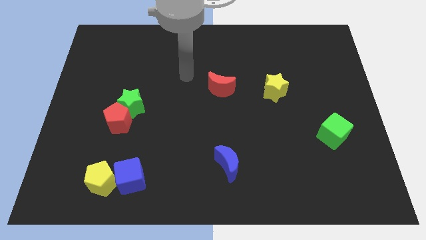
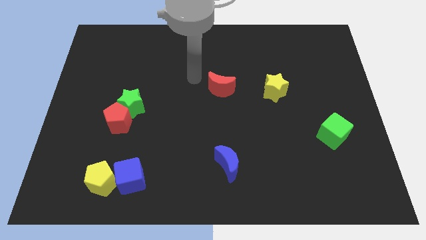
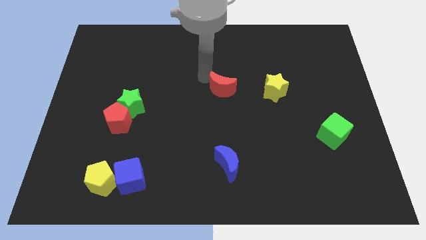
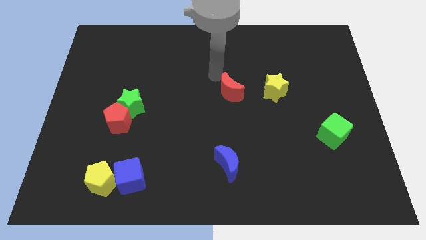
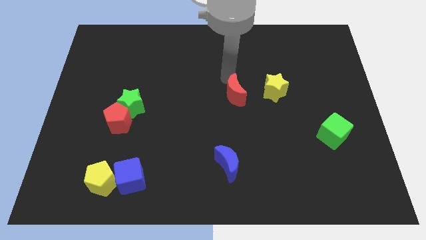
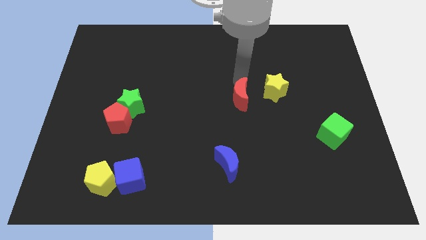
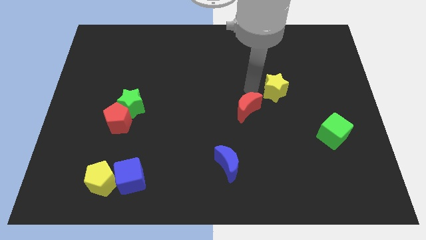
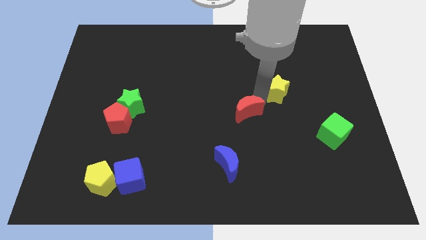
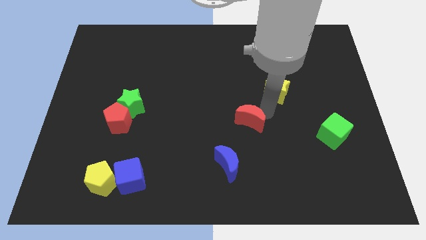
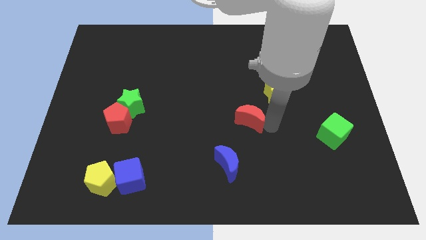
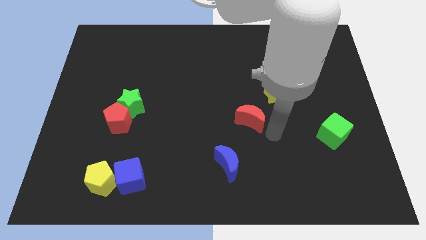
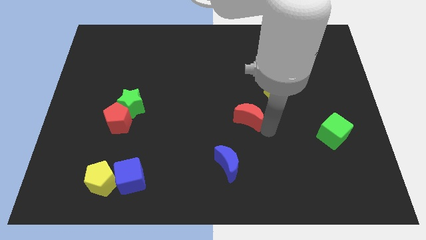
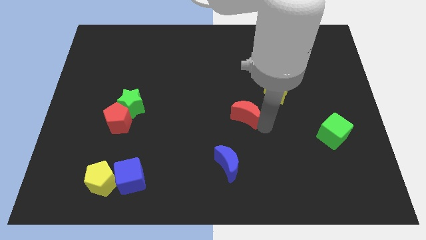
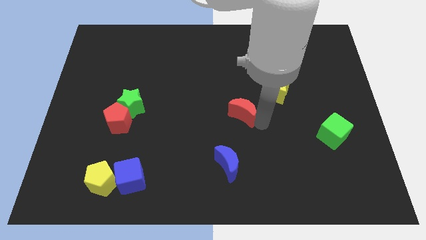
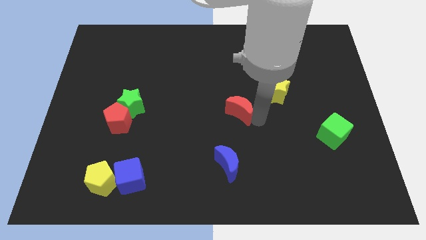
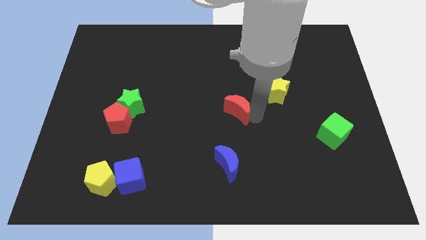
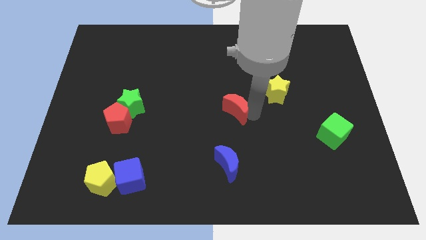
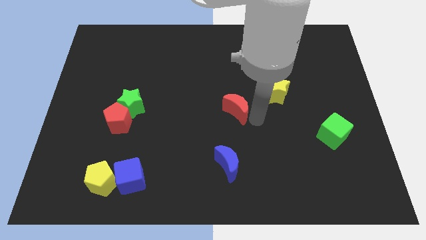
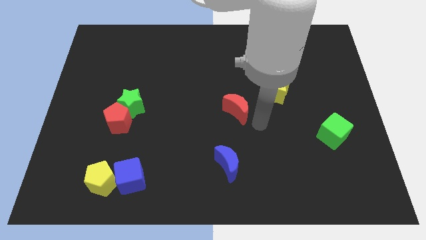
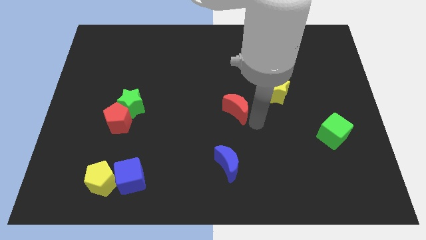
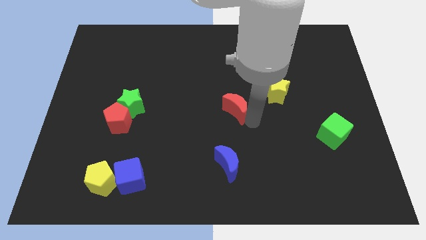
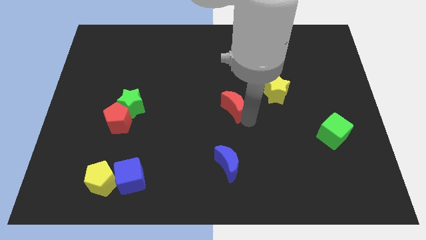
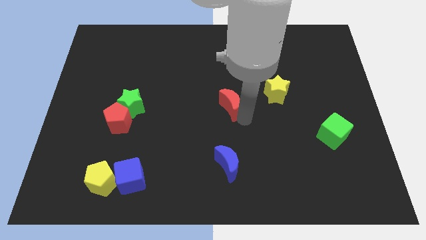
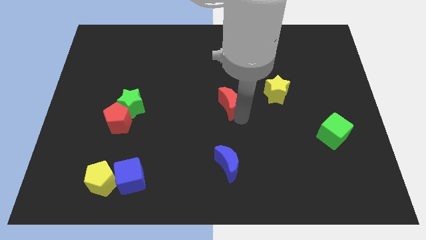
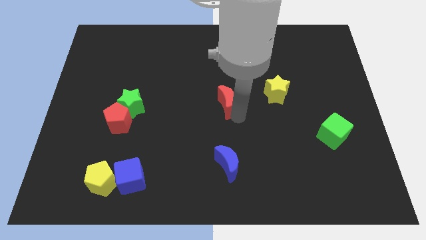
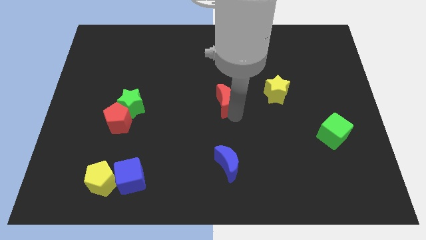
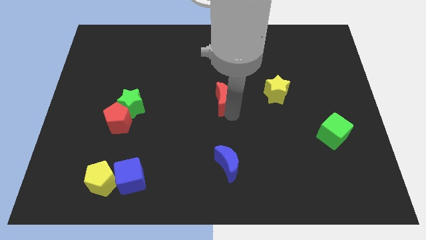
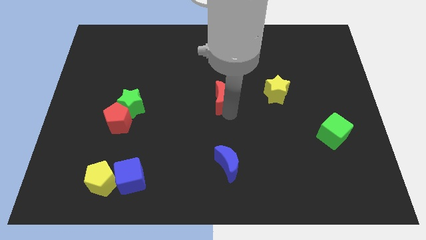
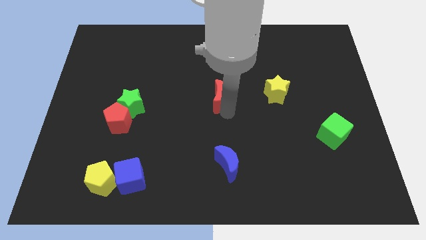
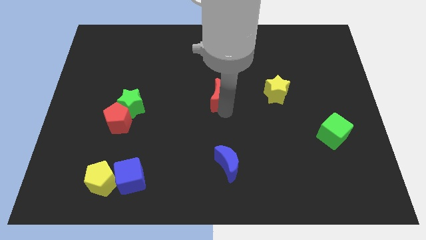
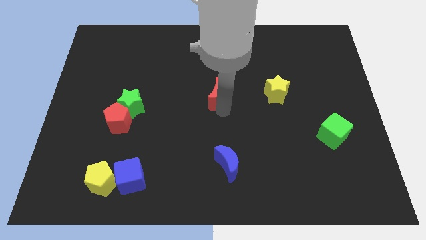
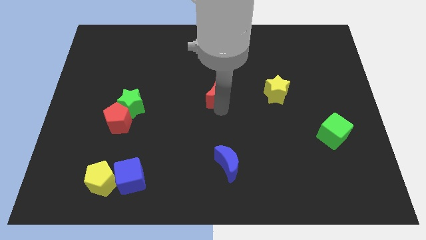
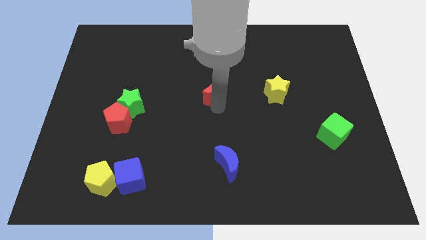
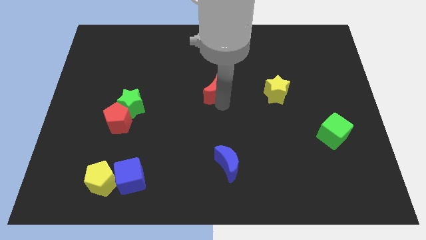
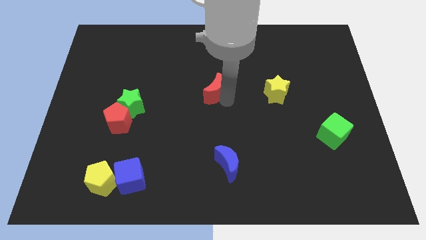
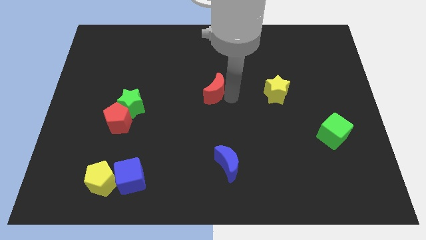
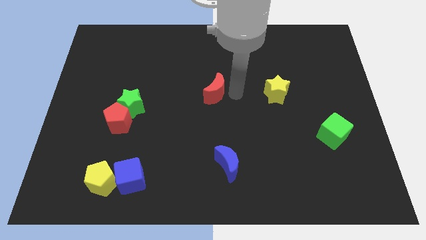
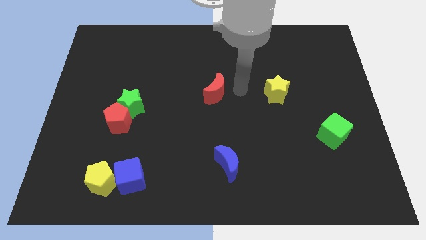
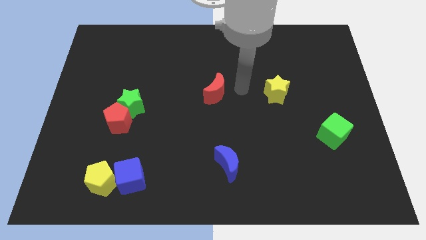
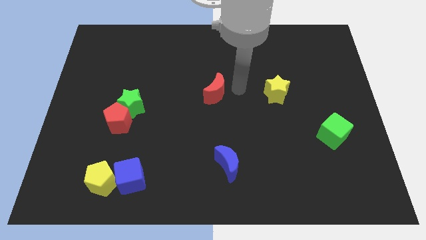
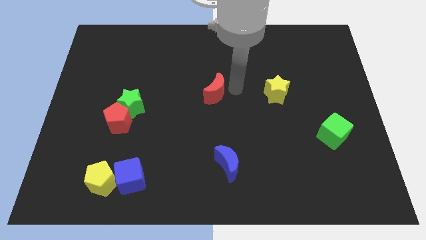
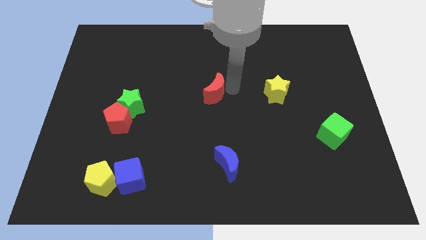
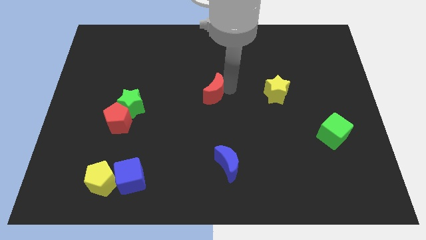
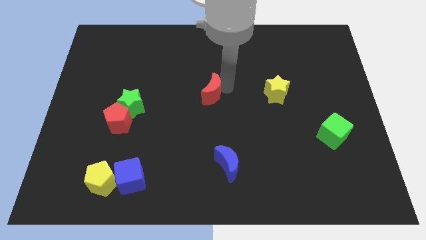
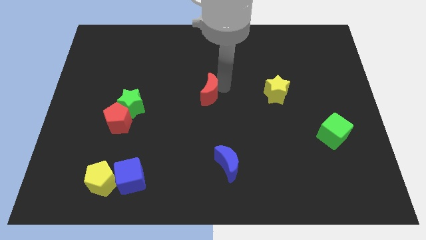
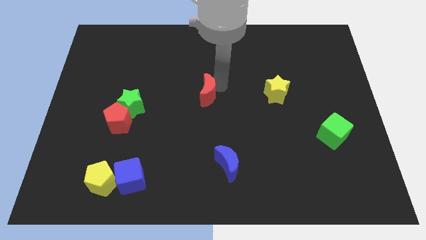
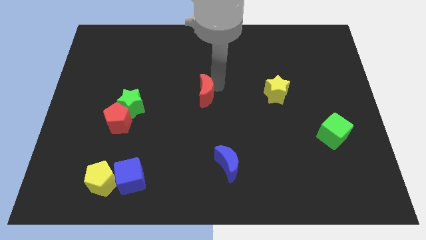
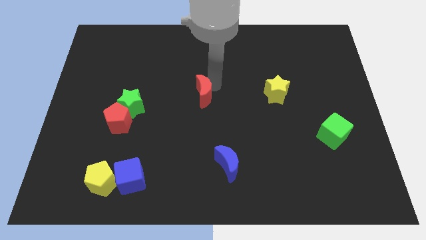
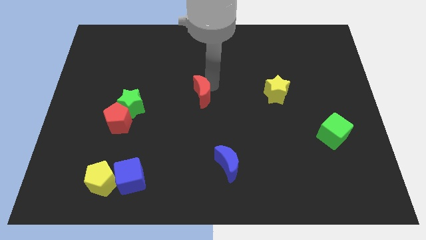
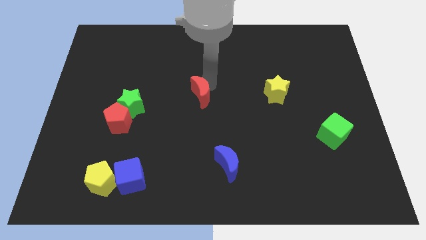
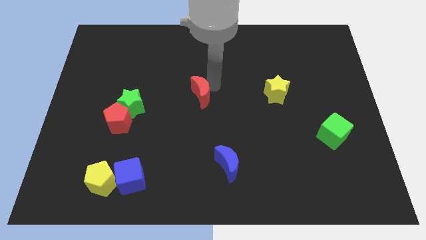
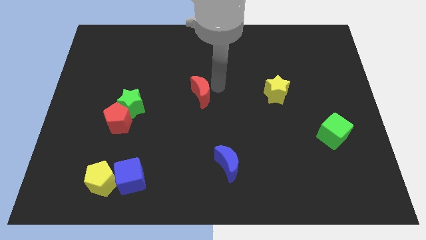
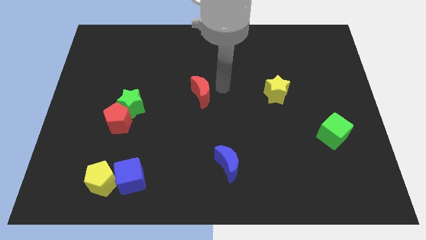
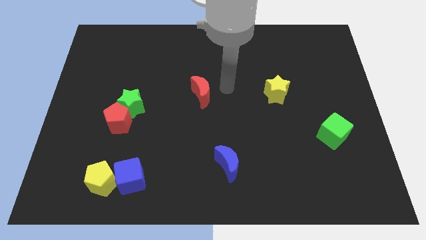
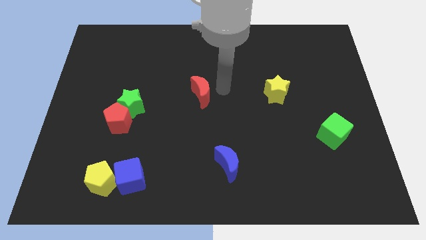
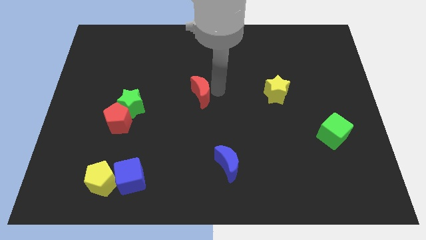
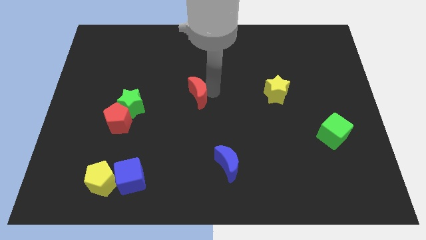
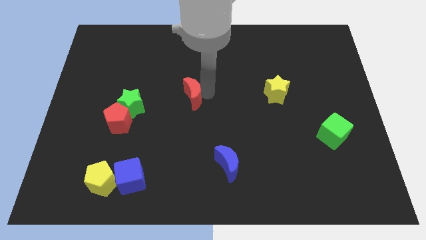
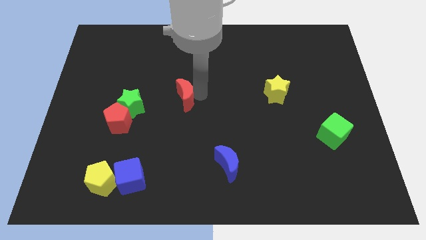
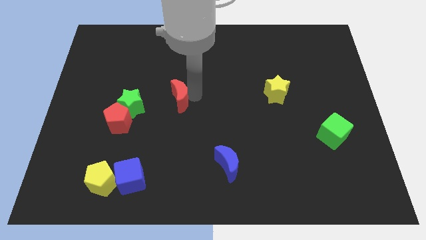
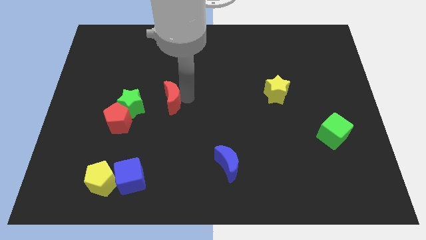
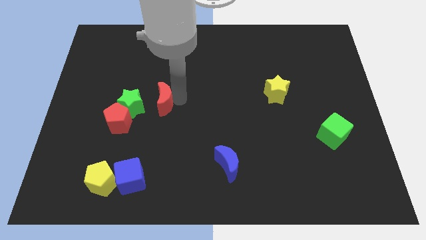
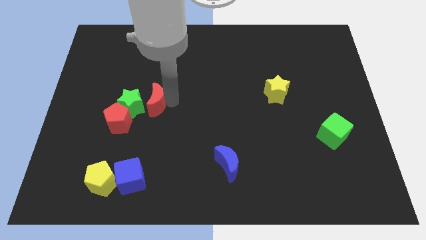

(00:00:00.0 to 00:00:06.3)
put the red moon towards the green star
